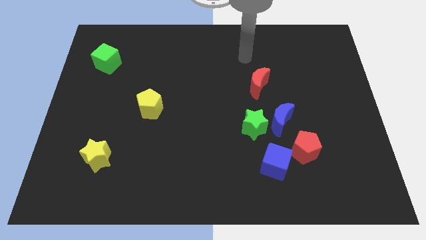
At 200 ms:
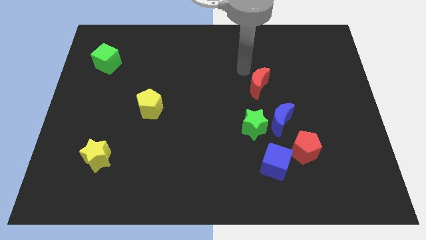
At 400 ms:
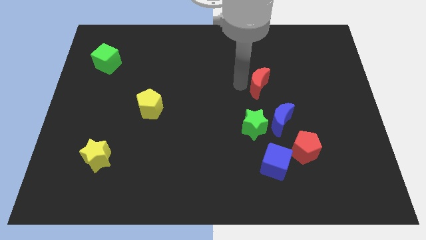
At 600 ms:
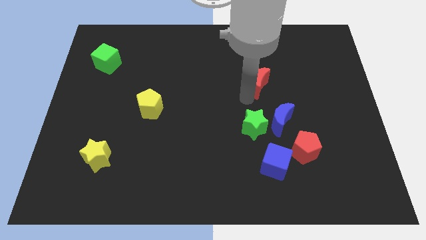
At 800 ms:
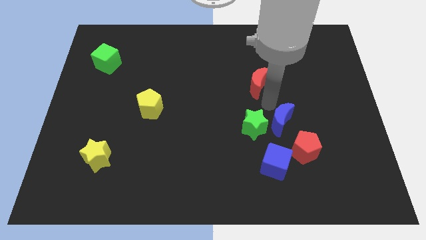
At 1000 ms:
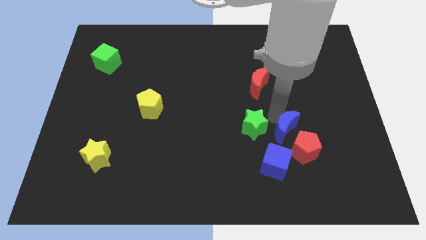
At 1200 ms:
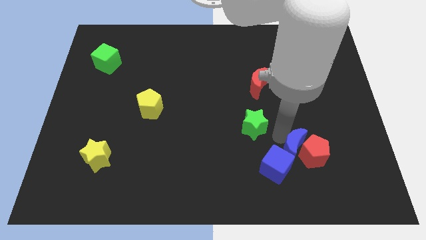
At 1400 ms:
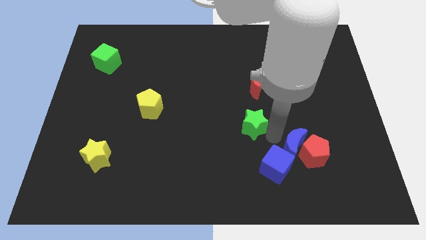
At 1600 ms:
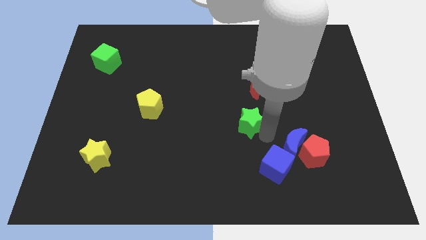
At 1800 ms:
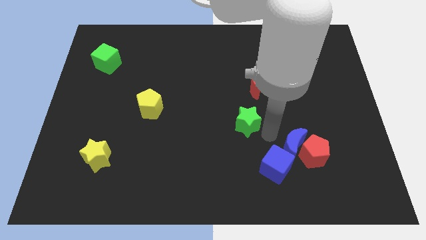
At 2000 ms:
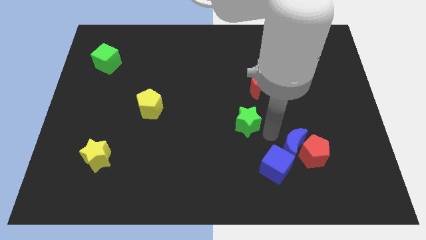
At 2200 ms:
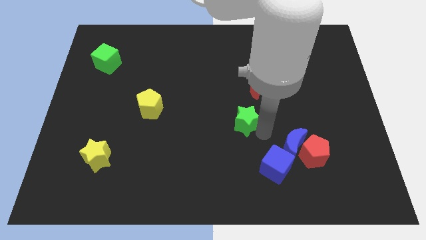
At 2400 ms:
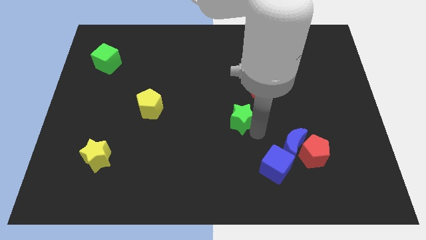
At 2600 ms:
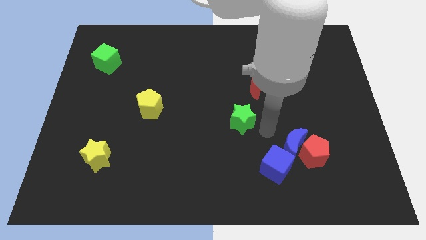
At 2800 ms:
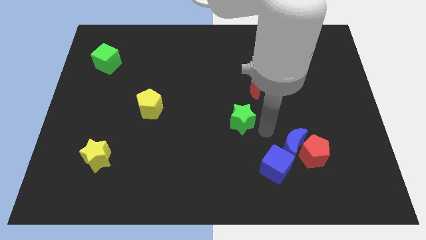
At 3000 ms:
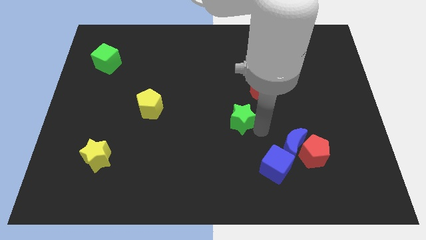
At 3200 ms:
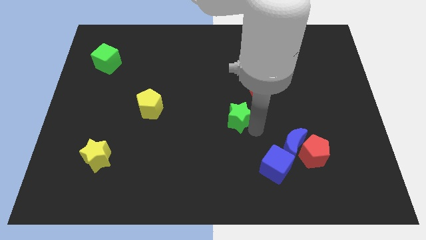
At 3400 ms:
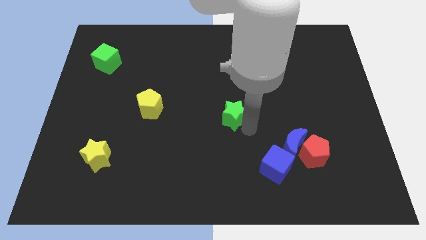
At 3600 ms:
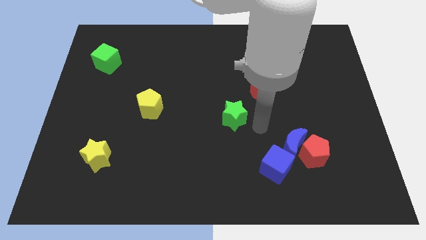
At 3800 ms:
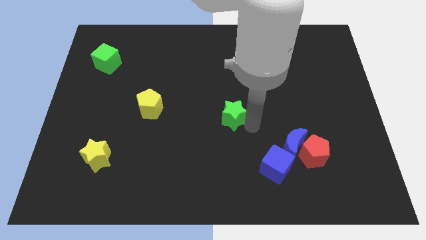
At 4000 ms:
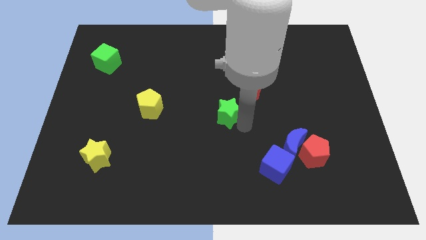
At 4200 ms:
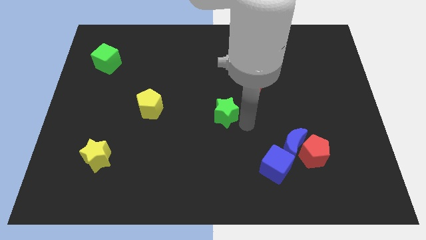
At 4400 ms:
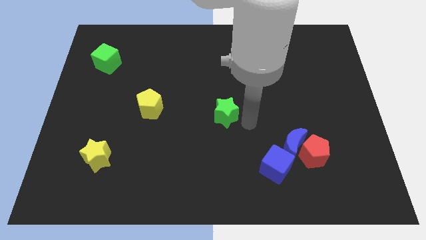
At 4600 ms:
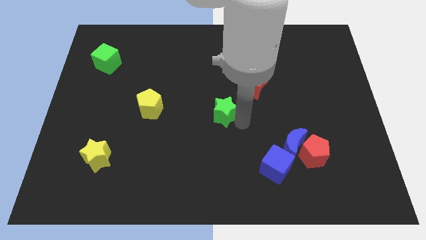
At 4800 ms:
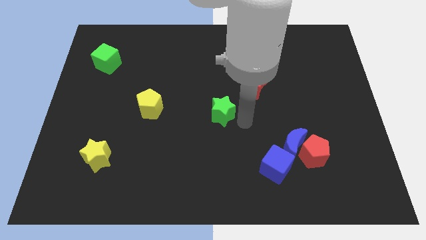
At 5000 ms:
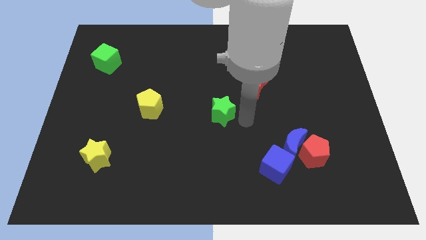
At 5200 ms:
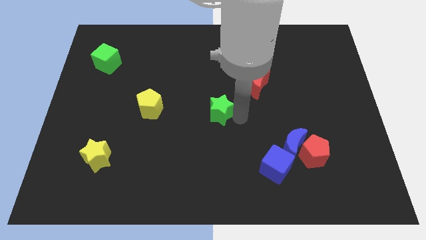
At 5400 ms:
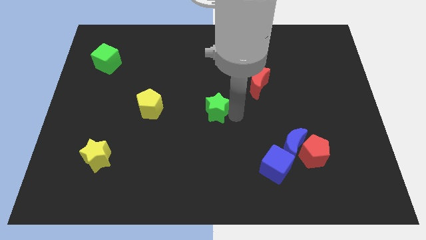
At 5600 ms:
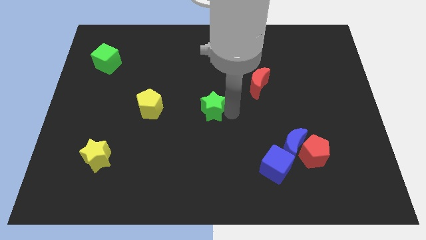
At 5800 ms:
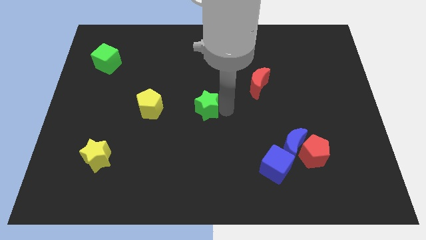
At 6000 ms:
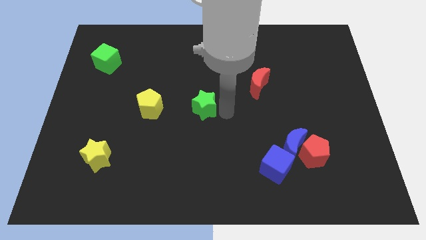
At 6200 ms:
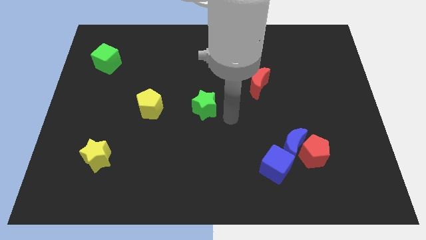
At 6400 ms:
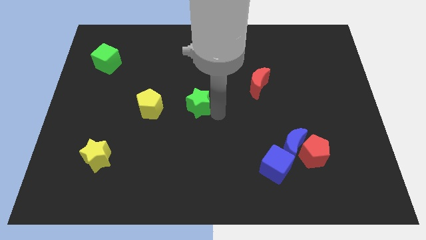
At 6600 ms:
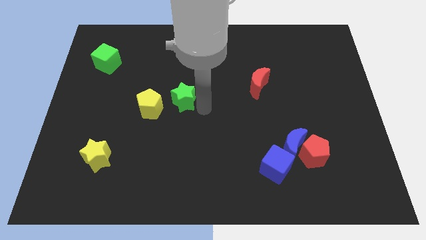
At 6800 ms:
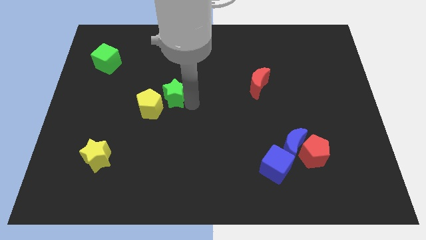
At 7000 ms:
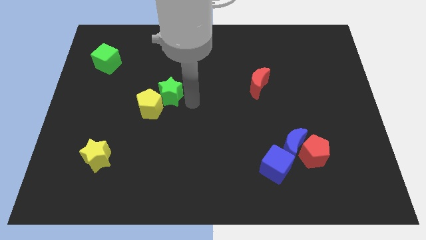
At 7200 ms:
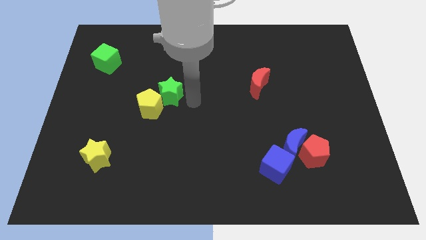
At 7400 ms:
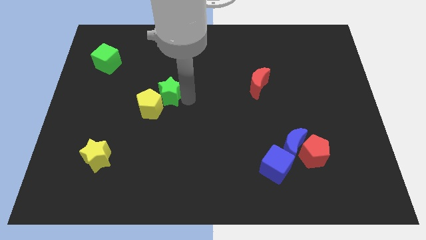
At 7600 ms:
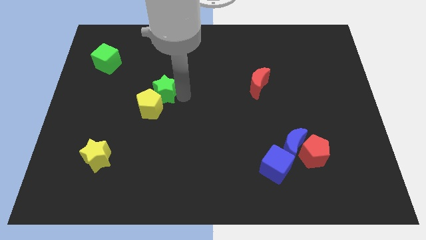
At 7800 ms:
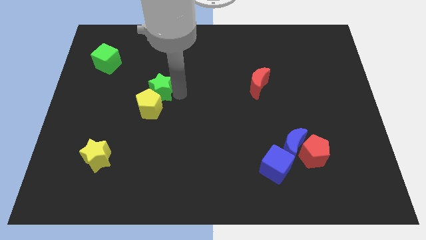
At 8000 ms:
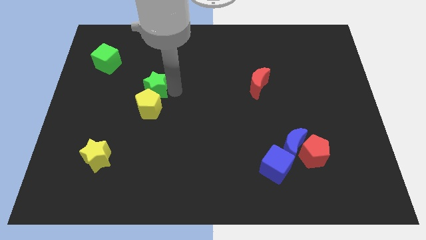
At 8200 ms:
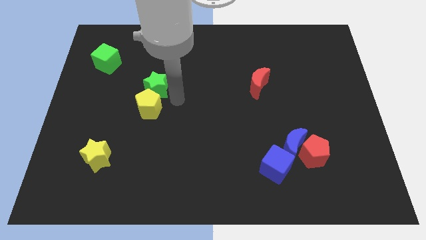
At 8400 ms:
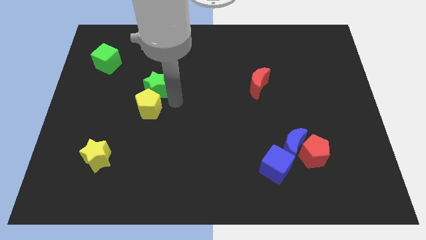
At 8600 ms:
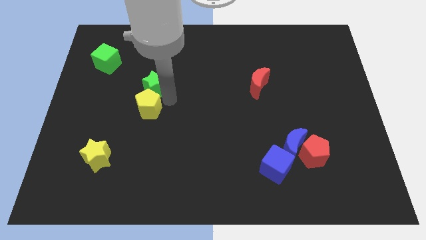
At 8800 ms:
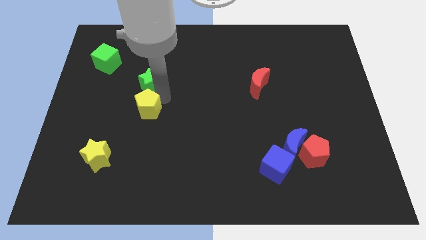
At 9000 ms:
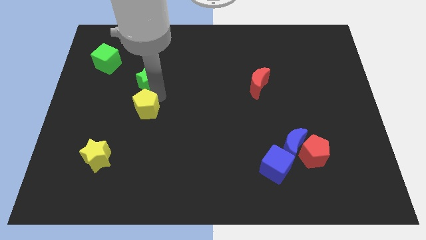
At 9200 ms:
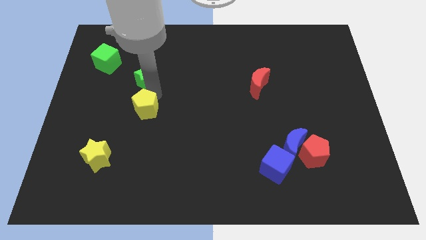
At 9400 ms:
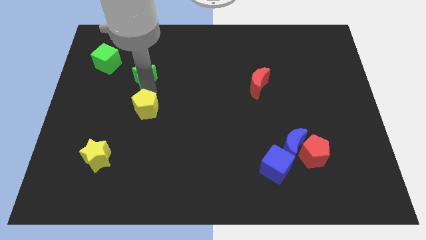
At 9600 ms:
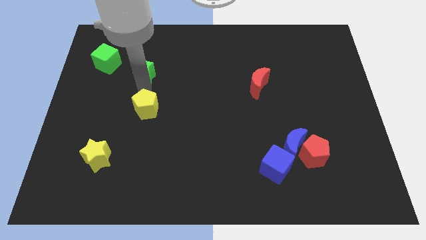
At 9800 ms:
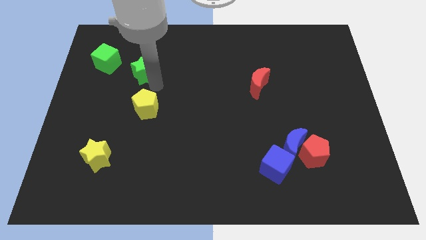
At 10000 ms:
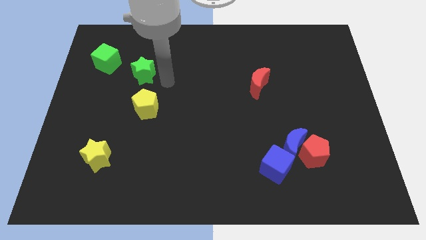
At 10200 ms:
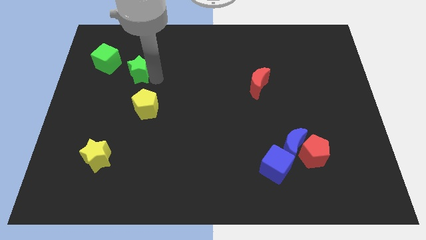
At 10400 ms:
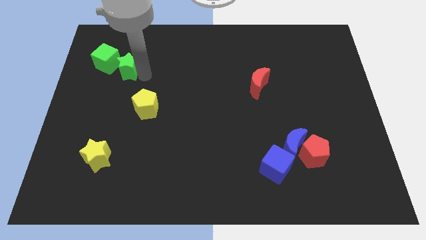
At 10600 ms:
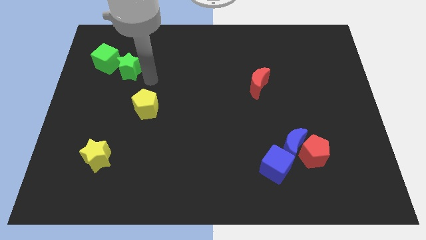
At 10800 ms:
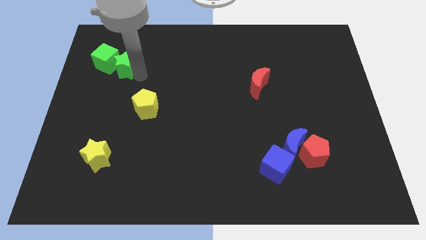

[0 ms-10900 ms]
push the green star next to the green cube

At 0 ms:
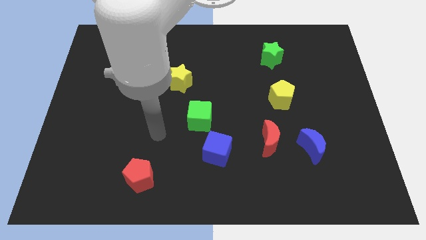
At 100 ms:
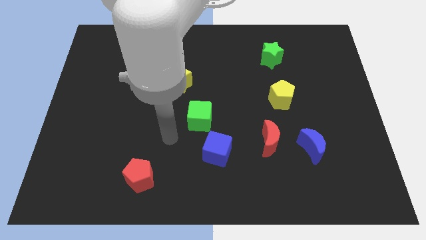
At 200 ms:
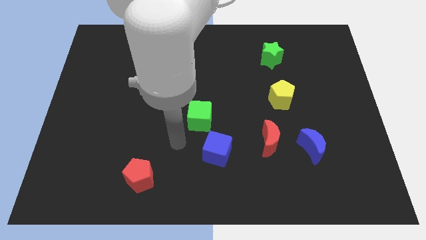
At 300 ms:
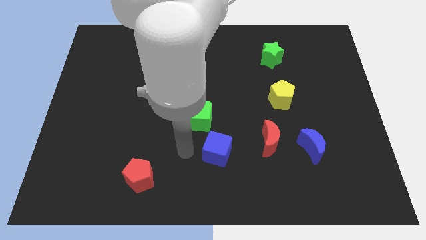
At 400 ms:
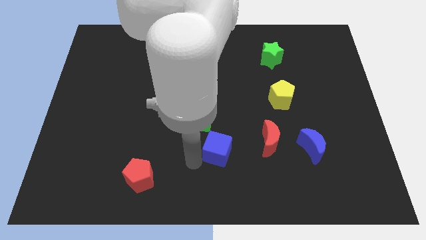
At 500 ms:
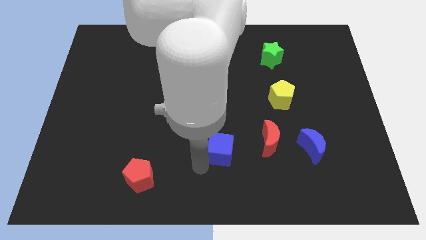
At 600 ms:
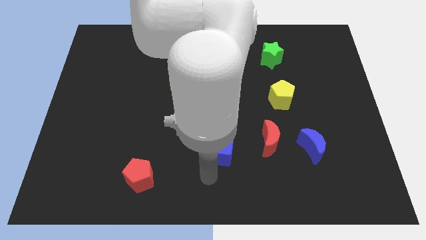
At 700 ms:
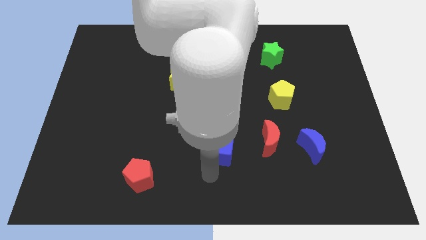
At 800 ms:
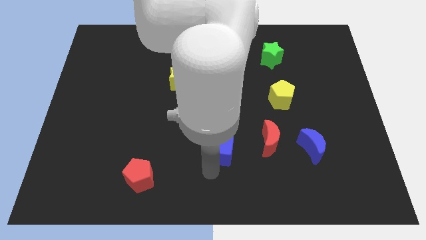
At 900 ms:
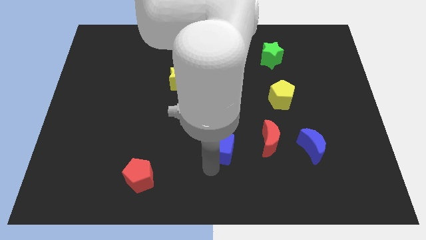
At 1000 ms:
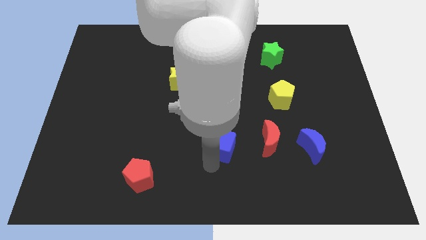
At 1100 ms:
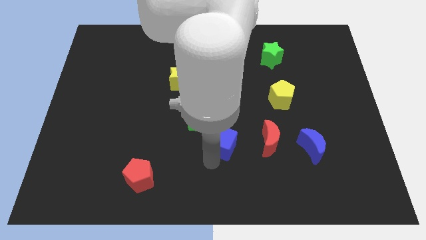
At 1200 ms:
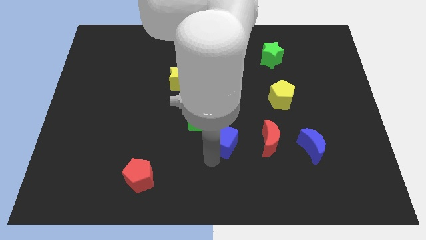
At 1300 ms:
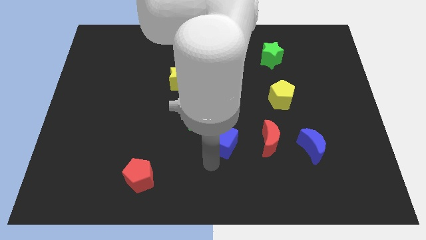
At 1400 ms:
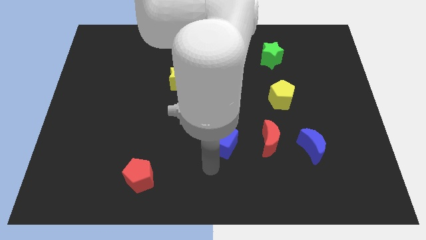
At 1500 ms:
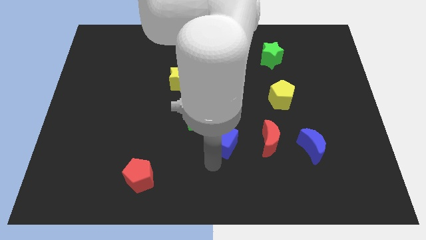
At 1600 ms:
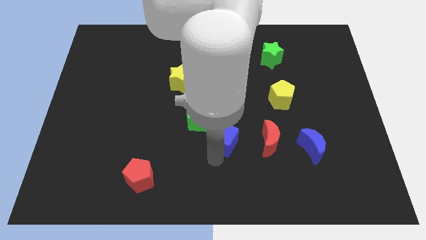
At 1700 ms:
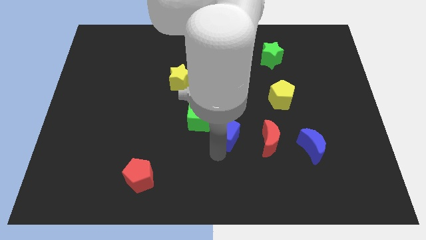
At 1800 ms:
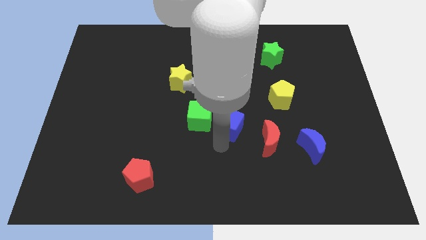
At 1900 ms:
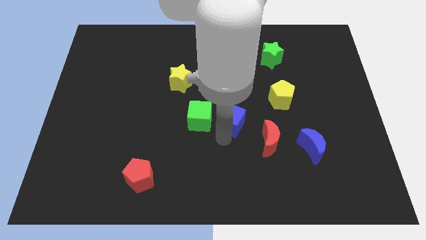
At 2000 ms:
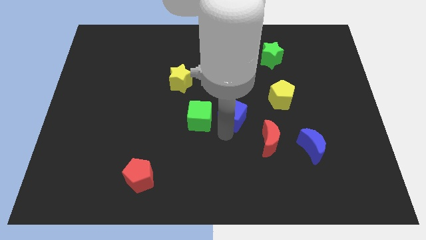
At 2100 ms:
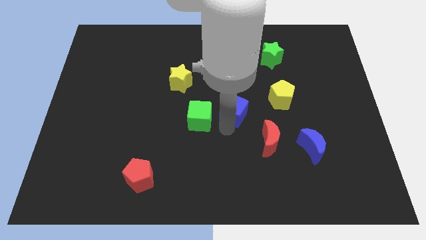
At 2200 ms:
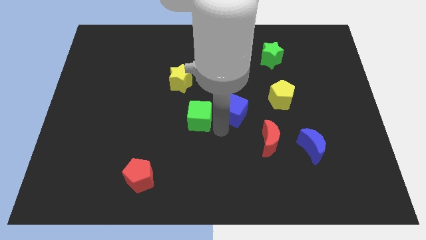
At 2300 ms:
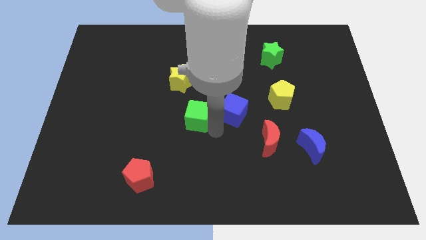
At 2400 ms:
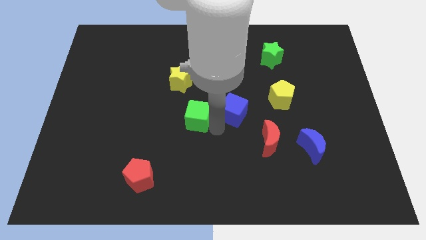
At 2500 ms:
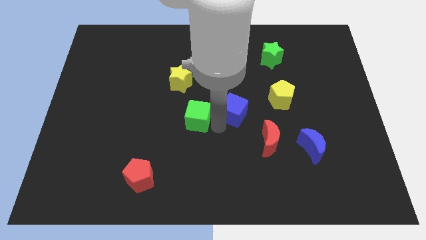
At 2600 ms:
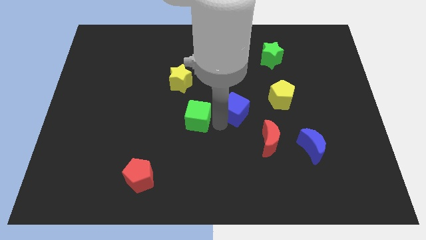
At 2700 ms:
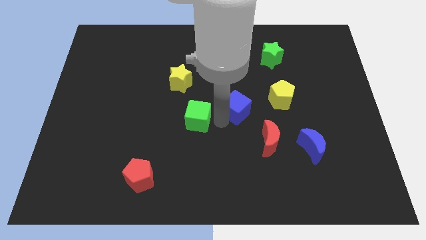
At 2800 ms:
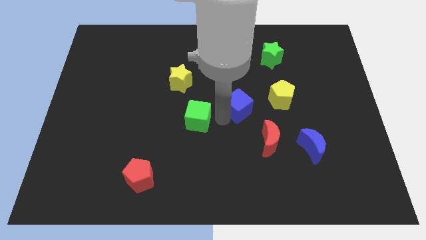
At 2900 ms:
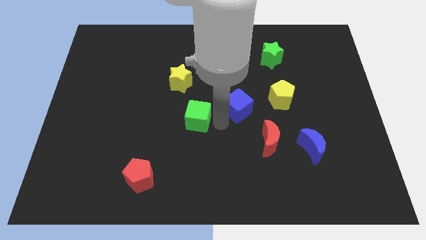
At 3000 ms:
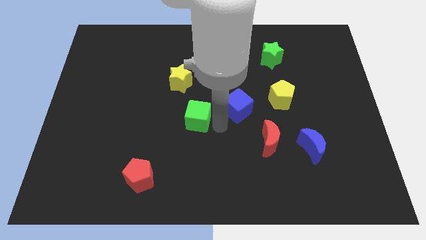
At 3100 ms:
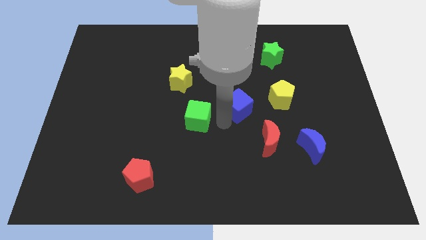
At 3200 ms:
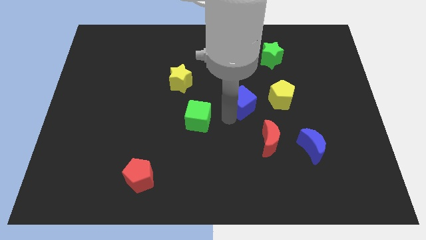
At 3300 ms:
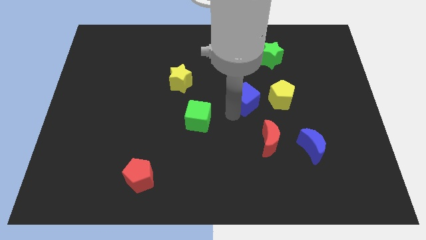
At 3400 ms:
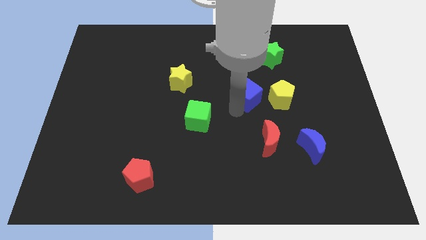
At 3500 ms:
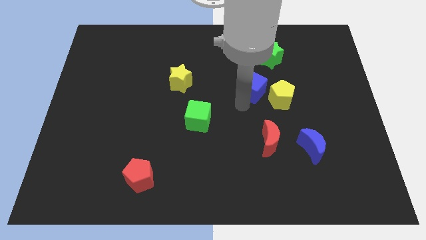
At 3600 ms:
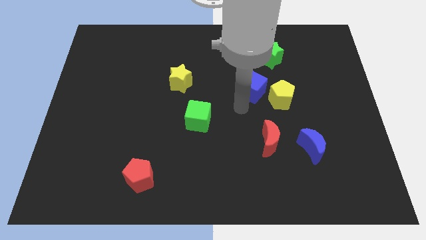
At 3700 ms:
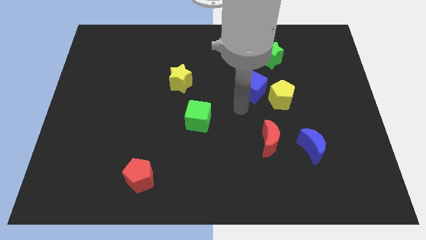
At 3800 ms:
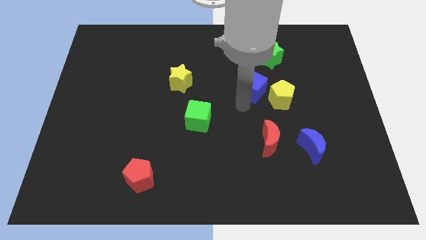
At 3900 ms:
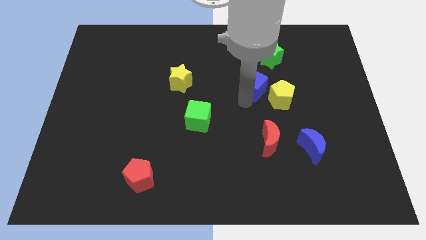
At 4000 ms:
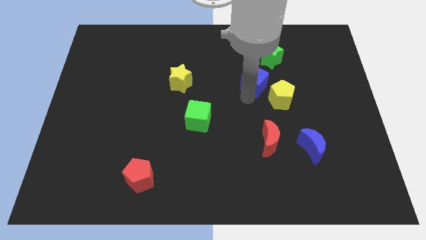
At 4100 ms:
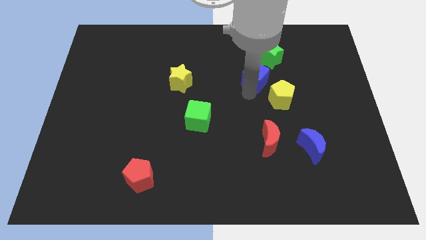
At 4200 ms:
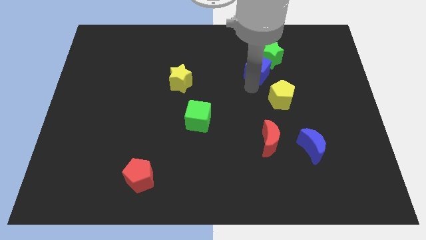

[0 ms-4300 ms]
slide the blue cube close to the green star
